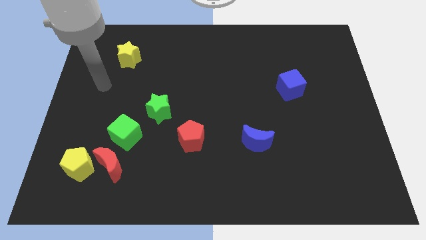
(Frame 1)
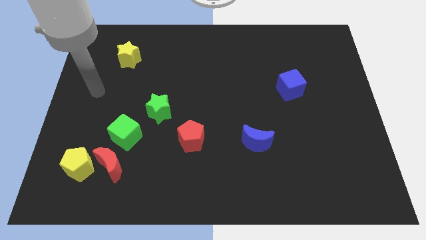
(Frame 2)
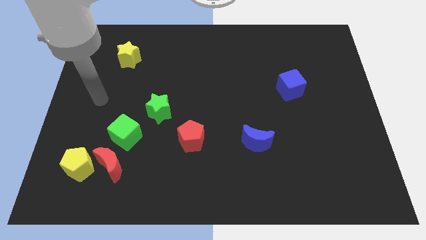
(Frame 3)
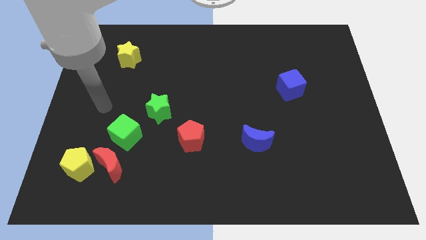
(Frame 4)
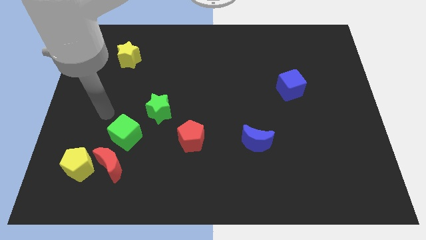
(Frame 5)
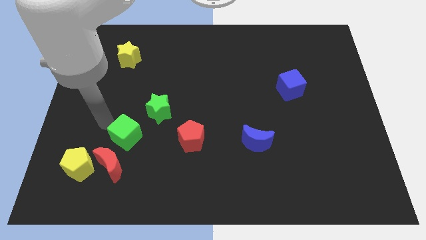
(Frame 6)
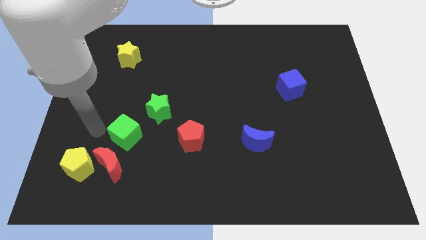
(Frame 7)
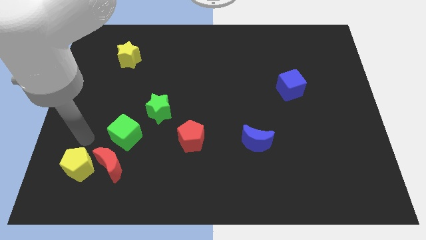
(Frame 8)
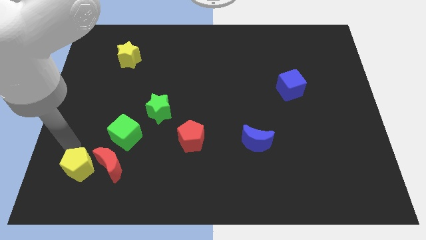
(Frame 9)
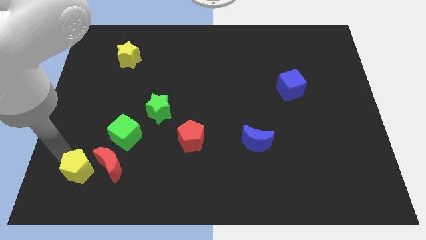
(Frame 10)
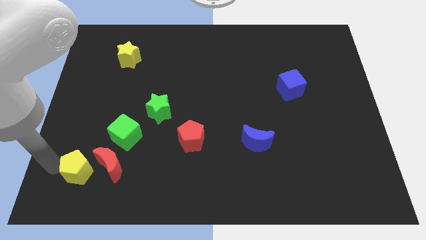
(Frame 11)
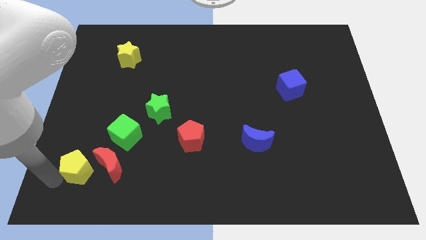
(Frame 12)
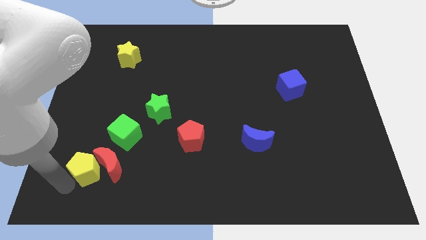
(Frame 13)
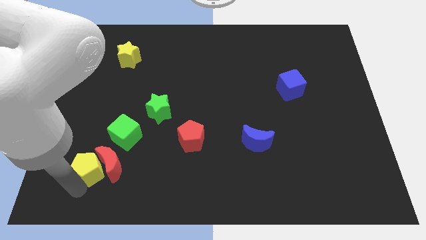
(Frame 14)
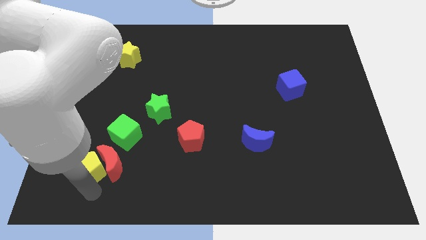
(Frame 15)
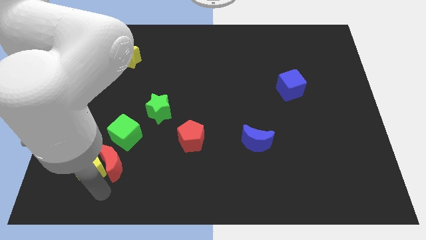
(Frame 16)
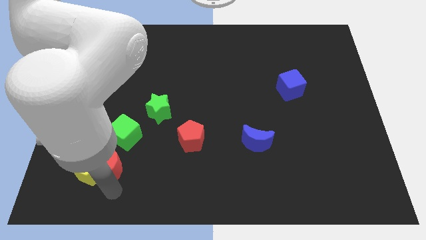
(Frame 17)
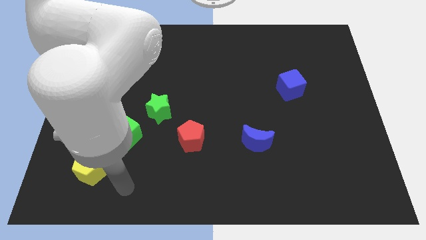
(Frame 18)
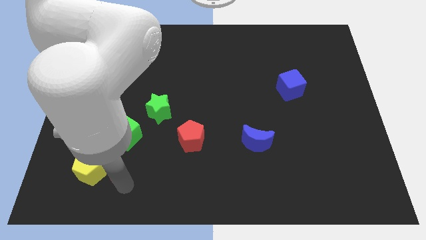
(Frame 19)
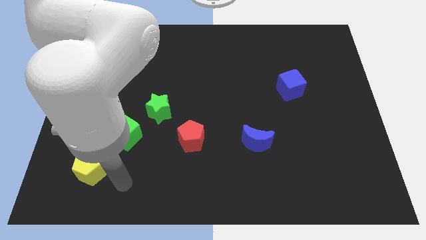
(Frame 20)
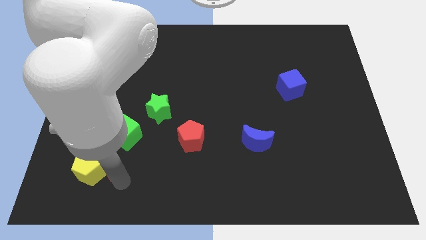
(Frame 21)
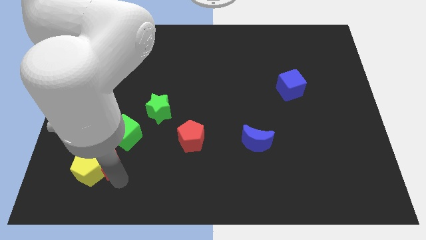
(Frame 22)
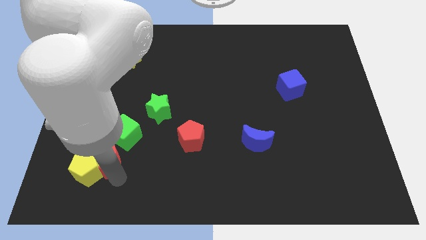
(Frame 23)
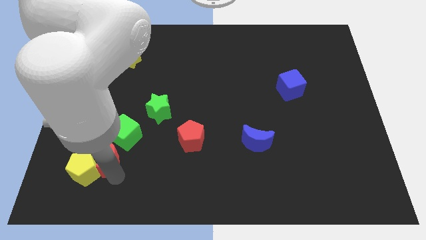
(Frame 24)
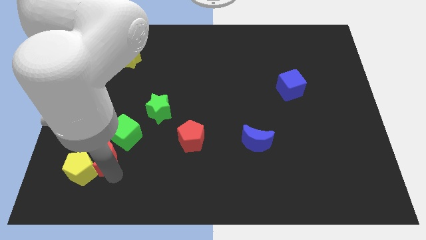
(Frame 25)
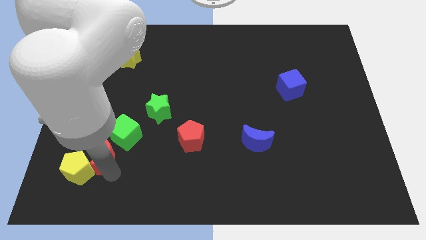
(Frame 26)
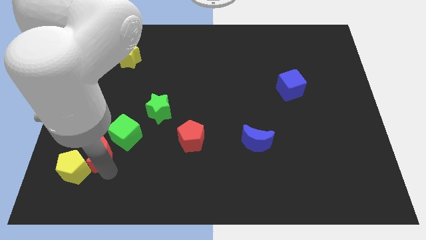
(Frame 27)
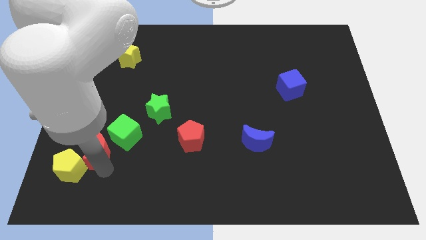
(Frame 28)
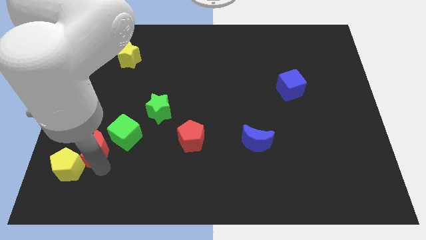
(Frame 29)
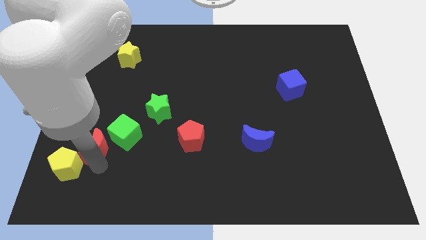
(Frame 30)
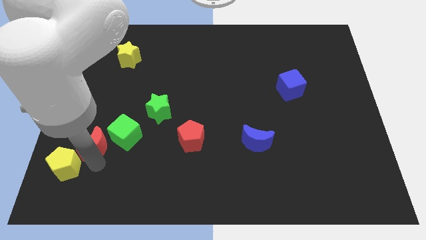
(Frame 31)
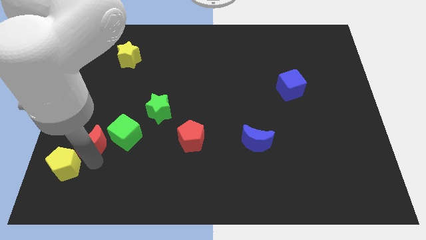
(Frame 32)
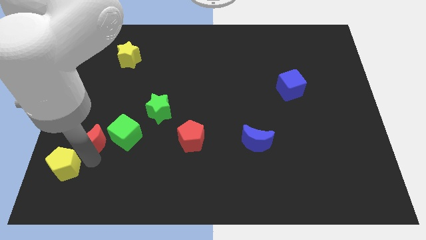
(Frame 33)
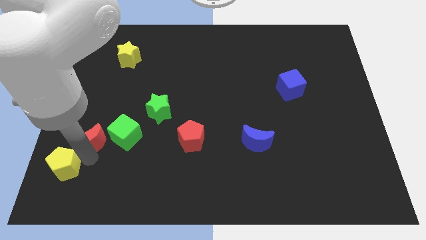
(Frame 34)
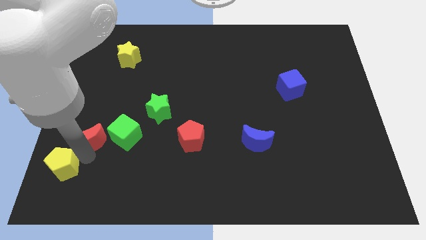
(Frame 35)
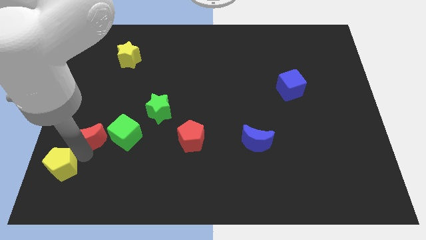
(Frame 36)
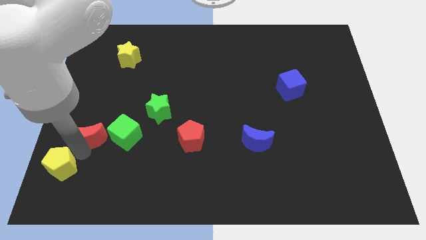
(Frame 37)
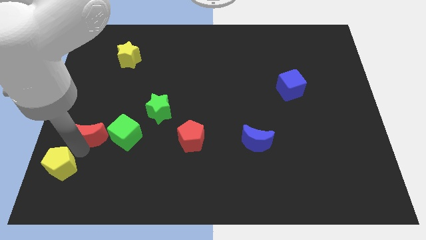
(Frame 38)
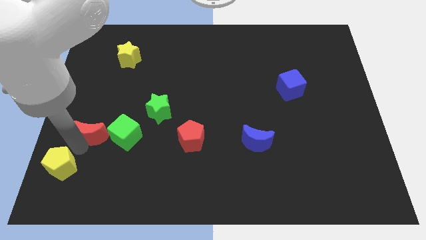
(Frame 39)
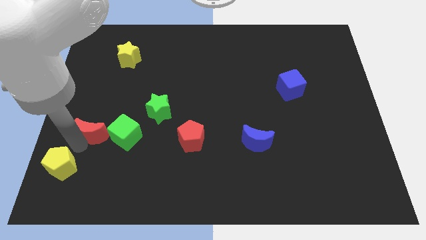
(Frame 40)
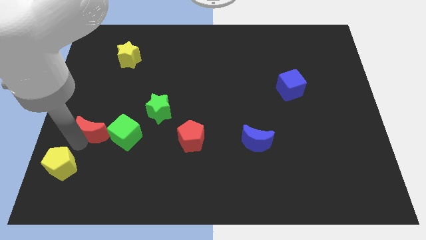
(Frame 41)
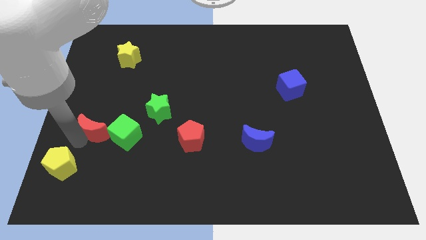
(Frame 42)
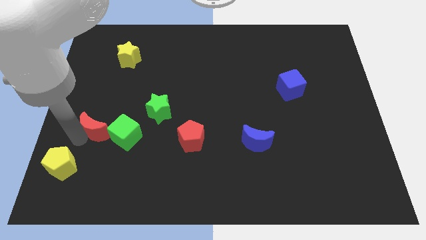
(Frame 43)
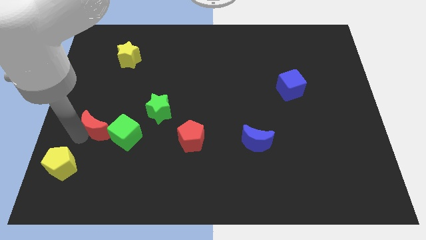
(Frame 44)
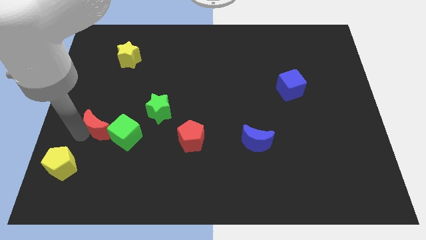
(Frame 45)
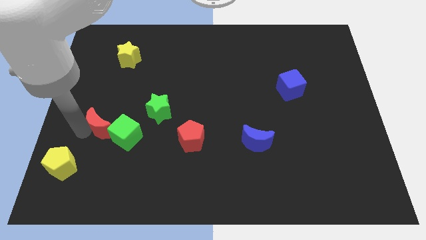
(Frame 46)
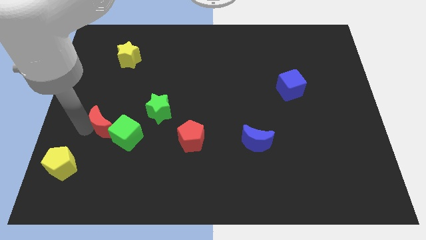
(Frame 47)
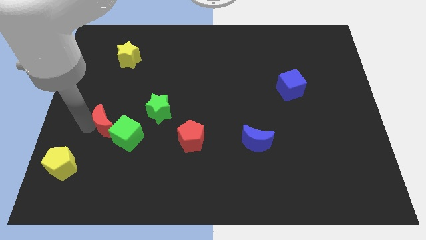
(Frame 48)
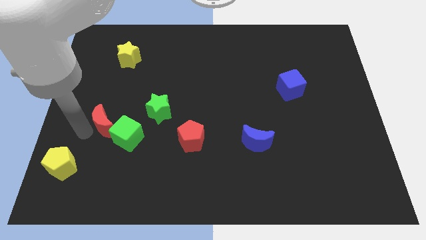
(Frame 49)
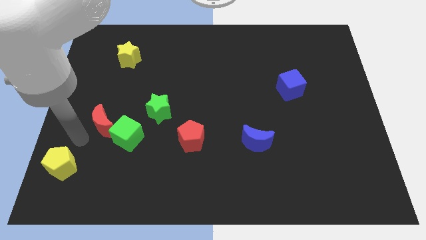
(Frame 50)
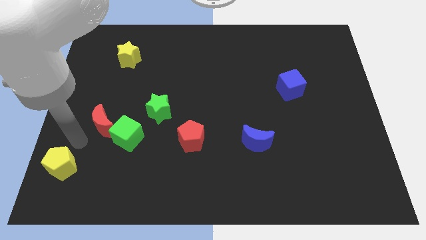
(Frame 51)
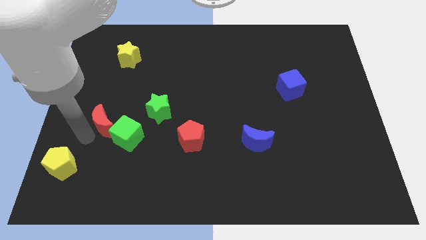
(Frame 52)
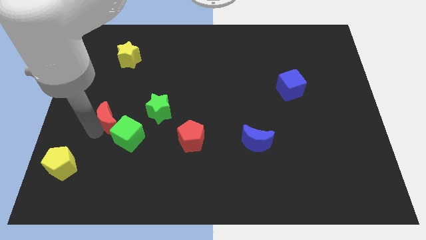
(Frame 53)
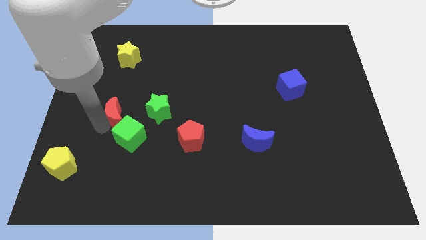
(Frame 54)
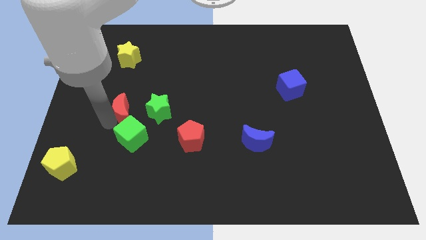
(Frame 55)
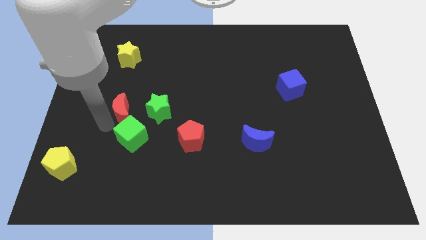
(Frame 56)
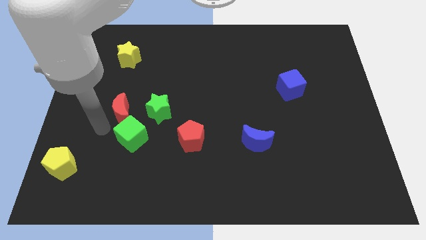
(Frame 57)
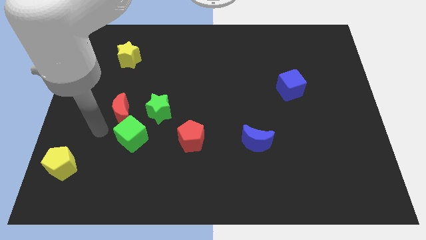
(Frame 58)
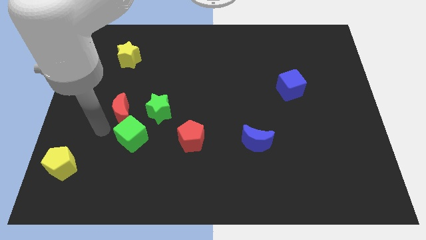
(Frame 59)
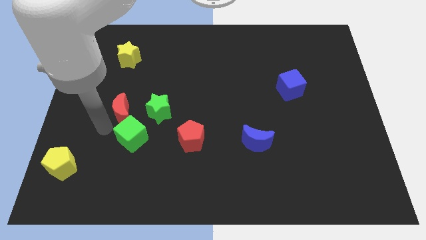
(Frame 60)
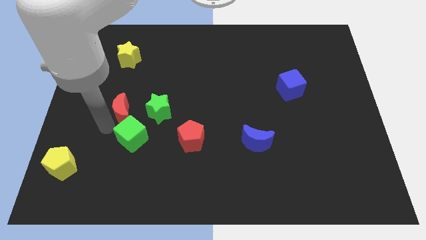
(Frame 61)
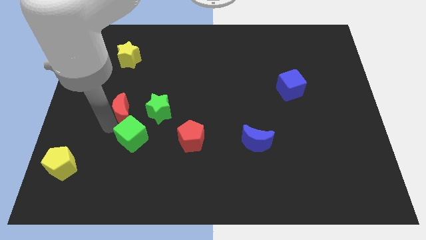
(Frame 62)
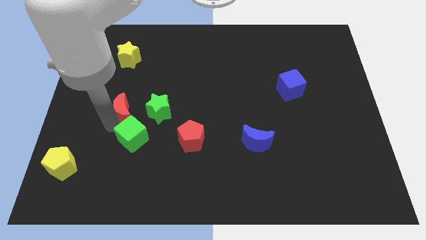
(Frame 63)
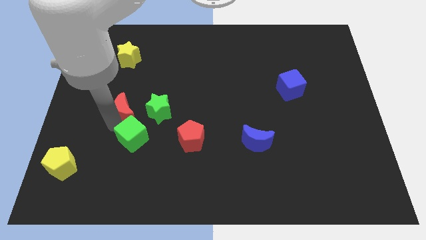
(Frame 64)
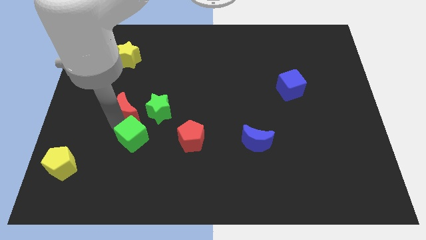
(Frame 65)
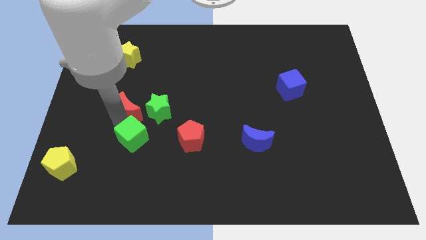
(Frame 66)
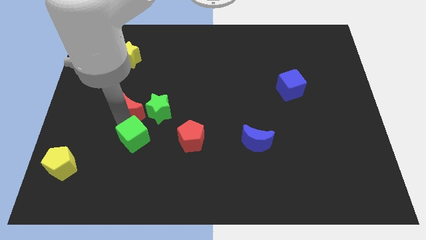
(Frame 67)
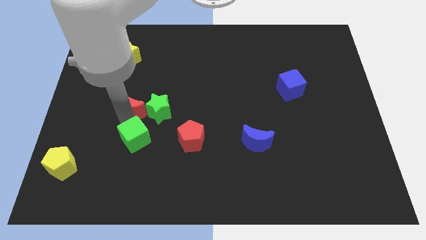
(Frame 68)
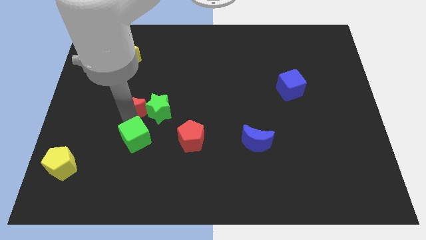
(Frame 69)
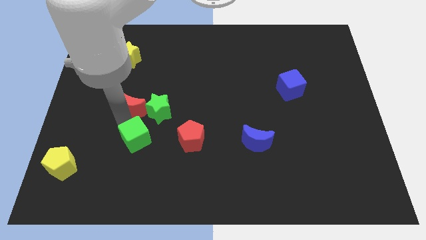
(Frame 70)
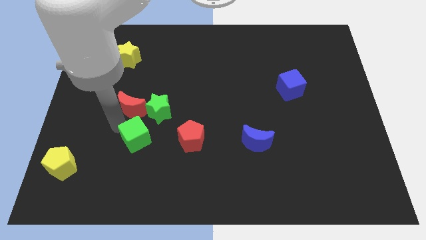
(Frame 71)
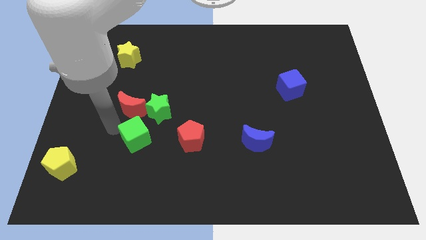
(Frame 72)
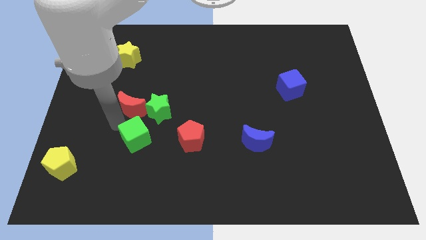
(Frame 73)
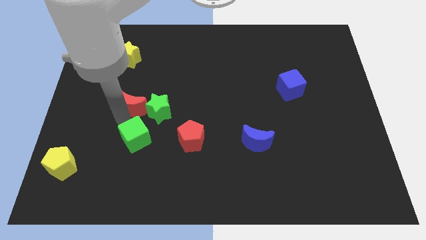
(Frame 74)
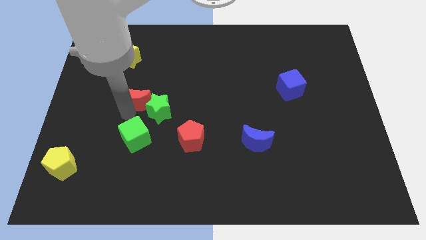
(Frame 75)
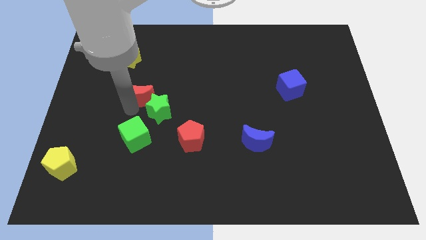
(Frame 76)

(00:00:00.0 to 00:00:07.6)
slide the red moon above the green star

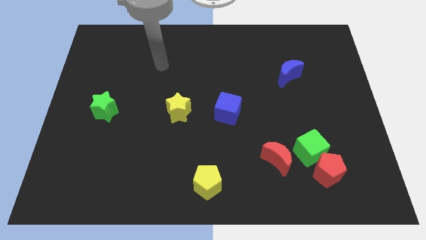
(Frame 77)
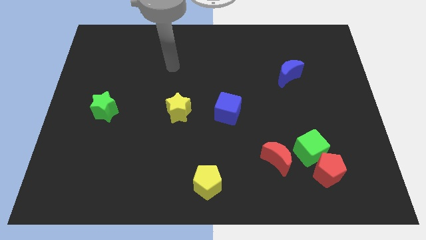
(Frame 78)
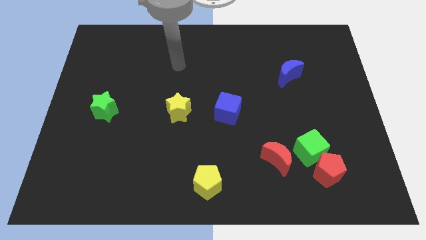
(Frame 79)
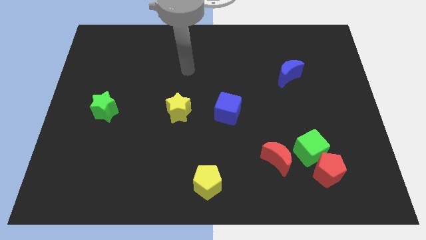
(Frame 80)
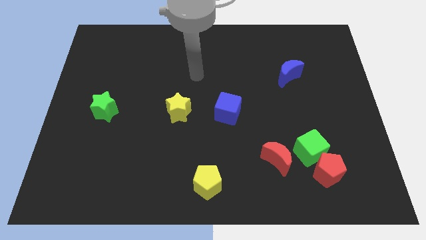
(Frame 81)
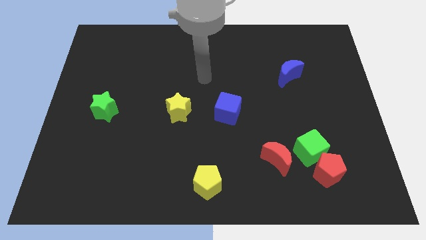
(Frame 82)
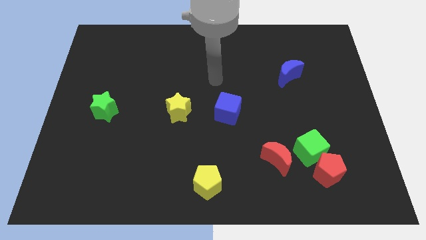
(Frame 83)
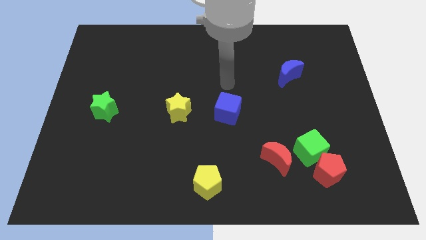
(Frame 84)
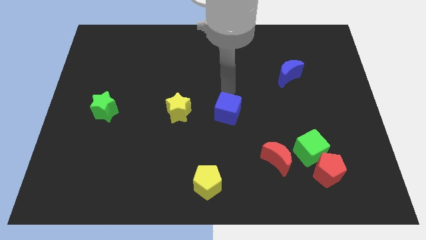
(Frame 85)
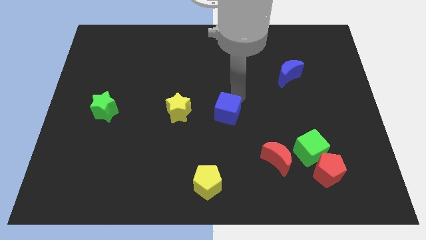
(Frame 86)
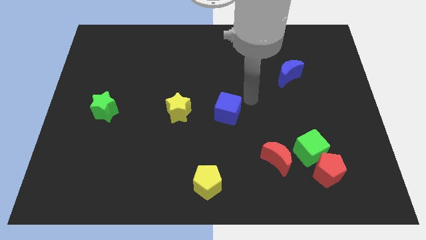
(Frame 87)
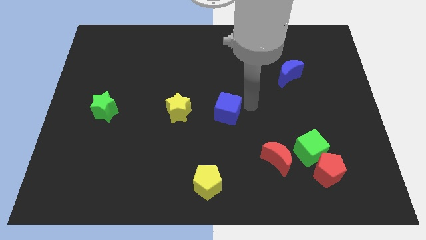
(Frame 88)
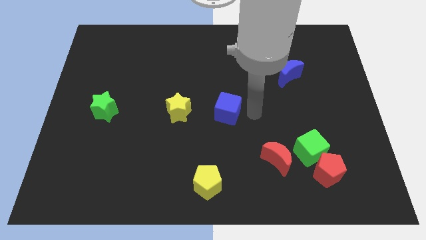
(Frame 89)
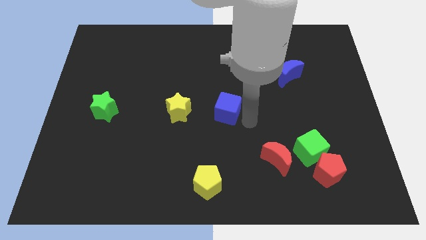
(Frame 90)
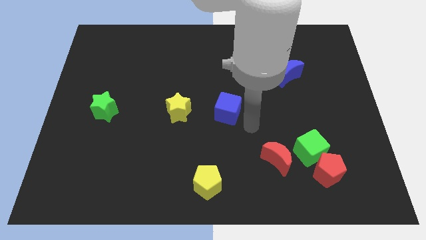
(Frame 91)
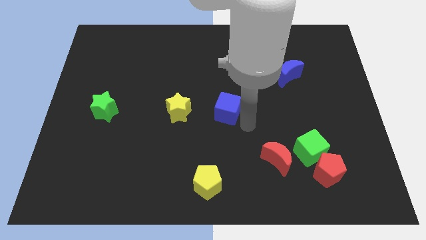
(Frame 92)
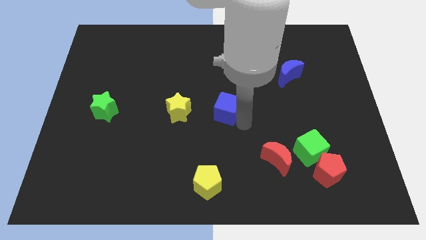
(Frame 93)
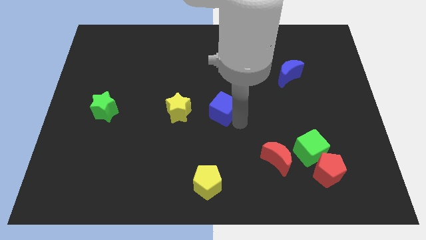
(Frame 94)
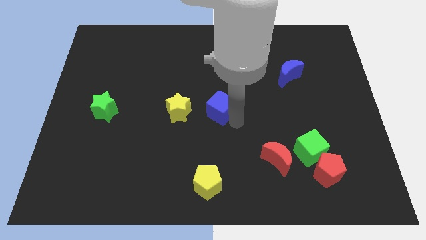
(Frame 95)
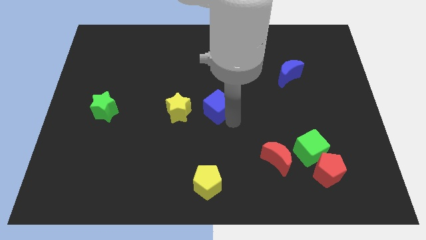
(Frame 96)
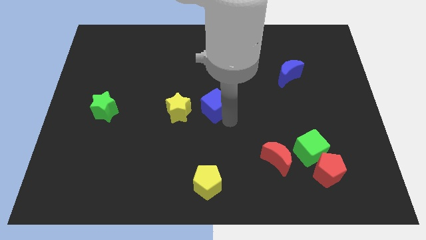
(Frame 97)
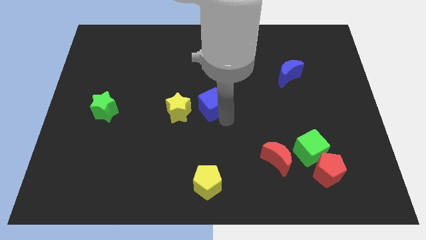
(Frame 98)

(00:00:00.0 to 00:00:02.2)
put the blue cube diagonally up and to the right of the yellow star
